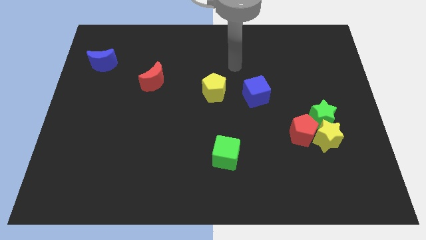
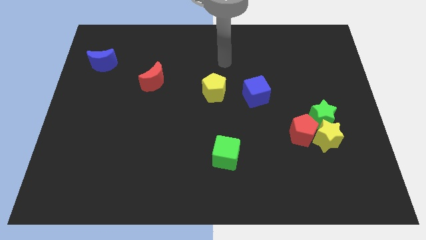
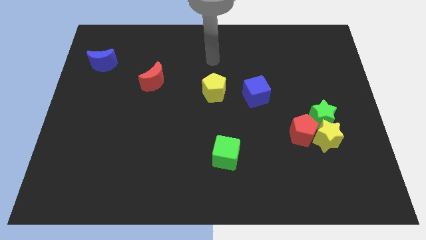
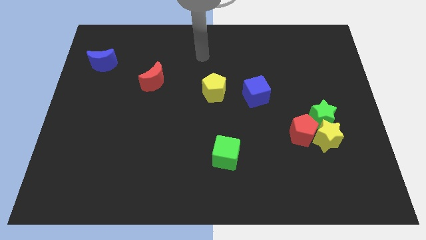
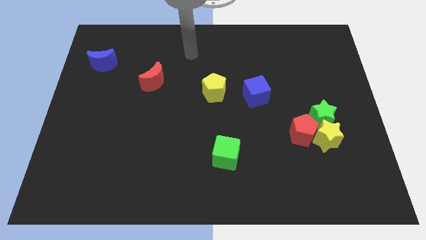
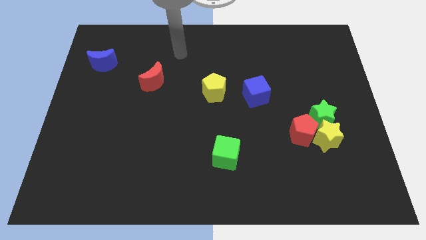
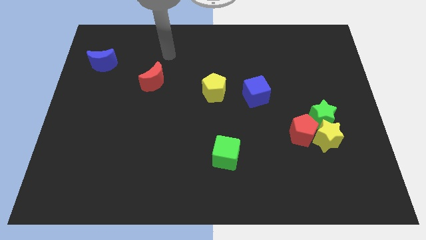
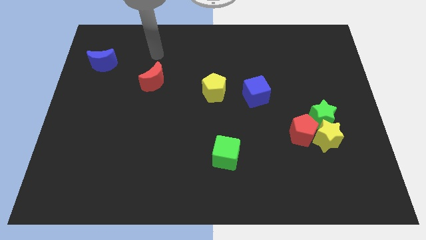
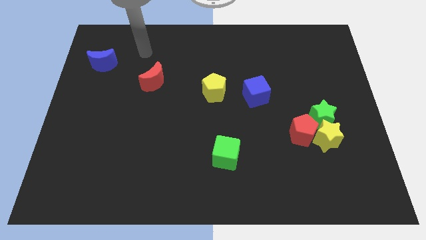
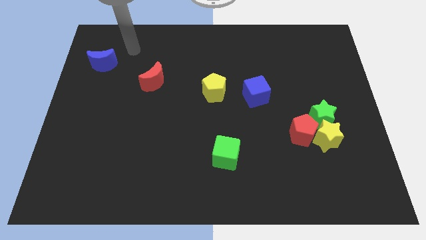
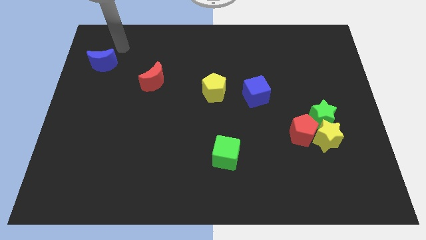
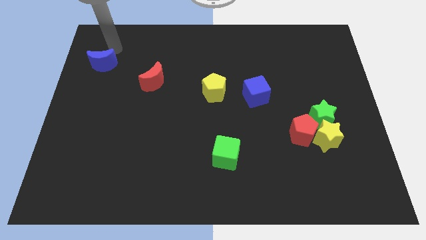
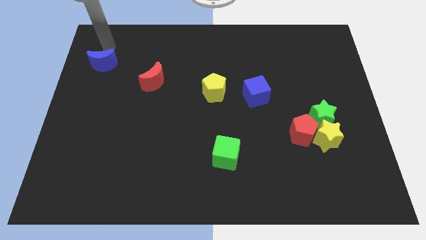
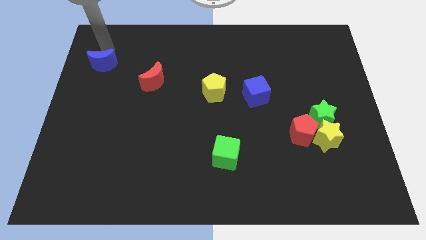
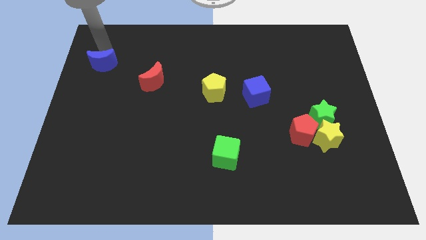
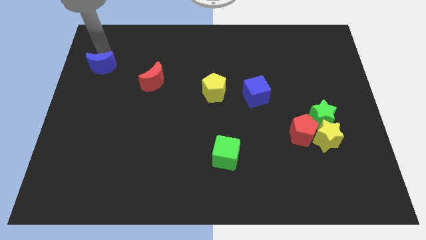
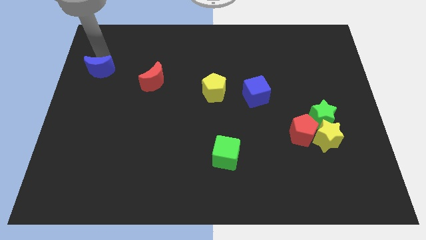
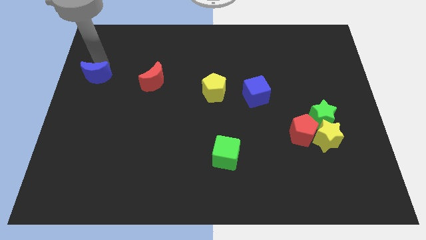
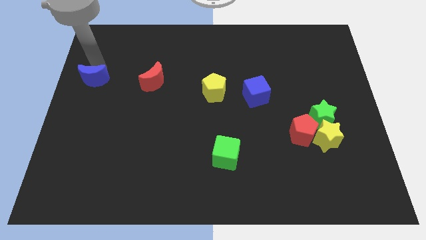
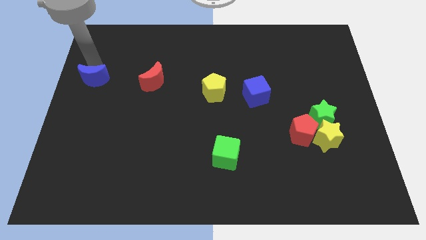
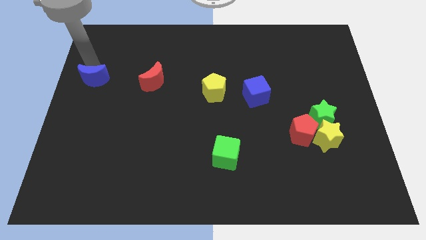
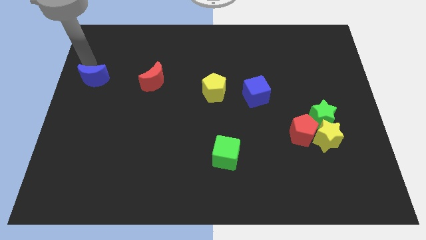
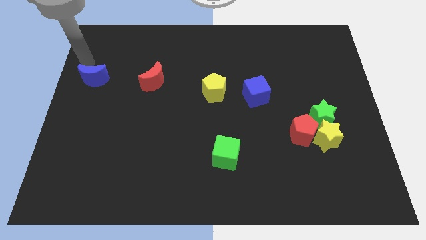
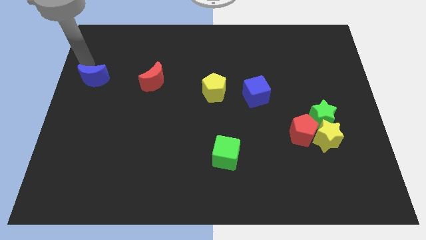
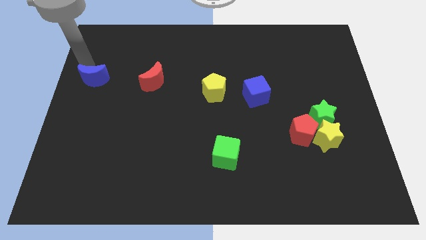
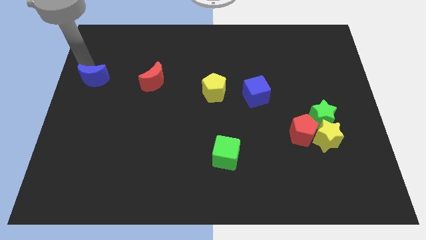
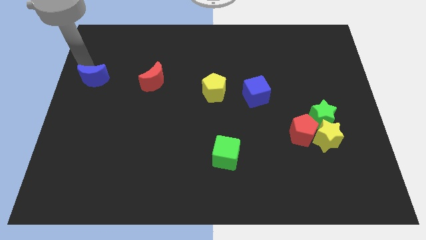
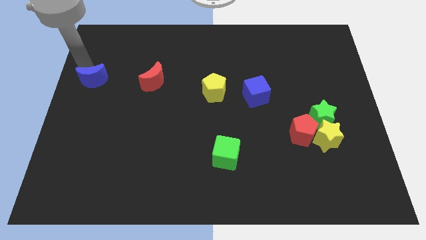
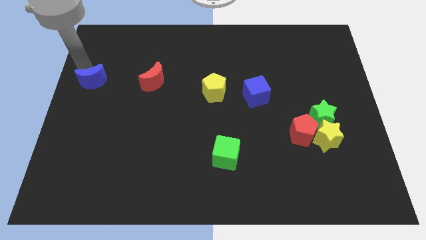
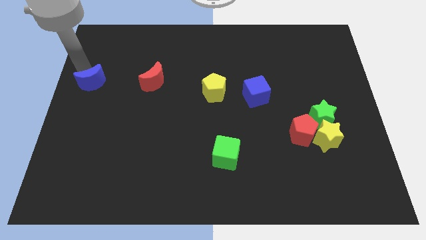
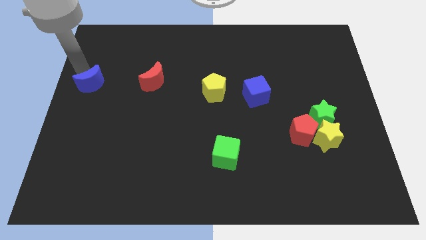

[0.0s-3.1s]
slightly push the blue moon downwards

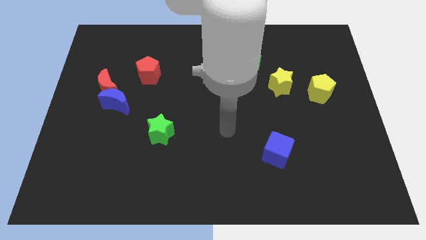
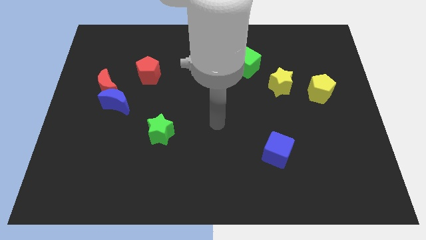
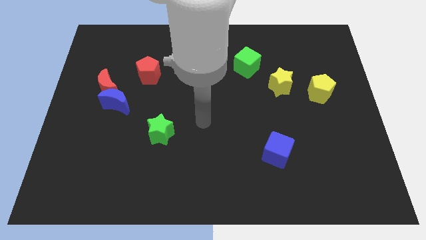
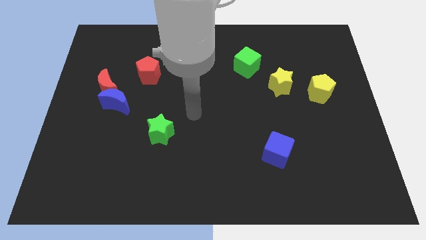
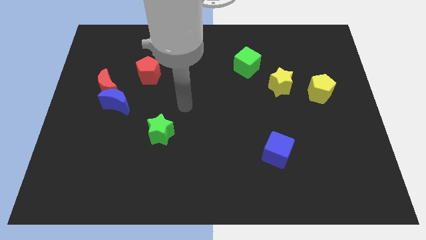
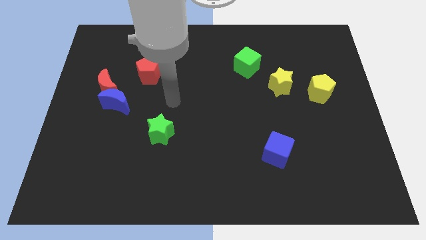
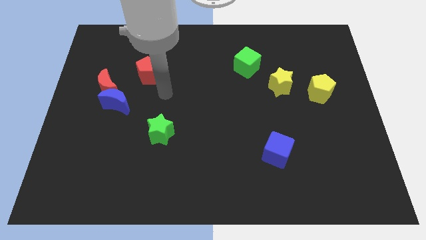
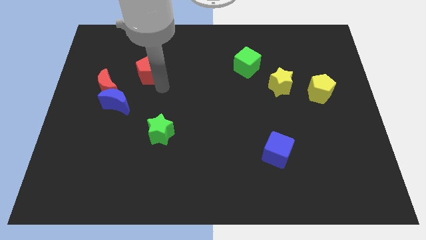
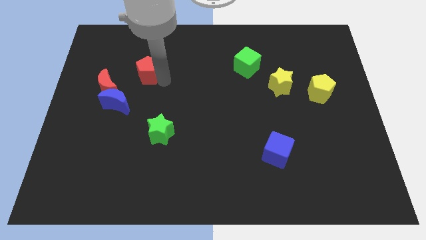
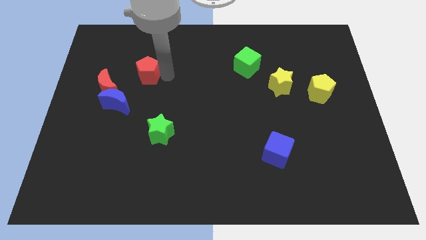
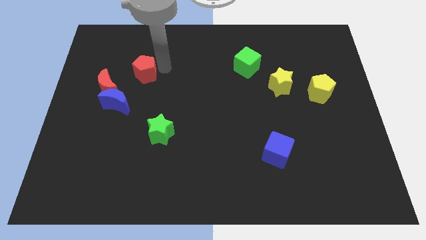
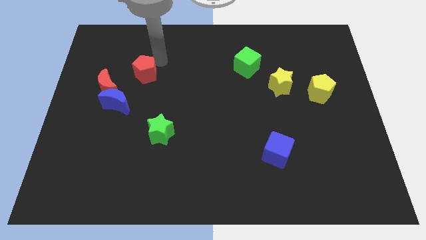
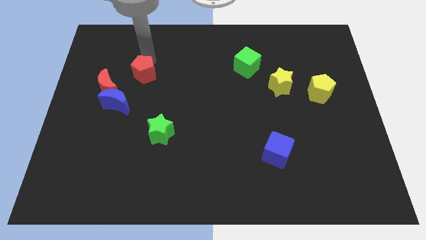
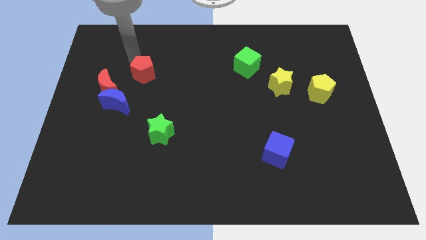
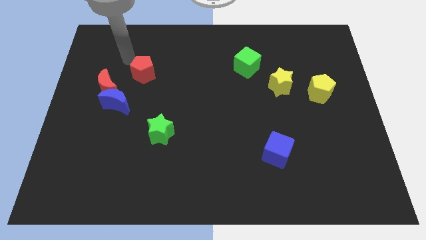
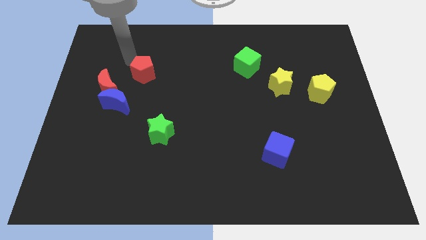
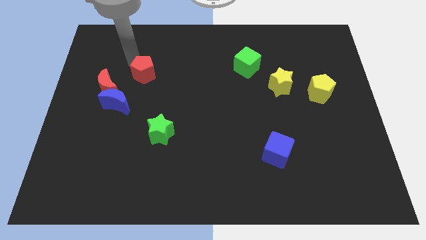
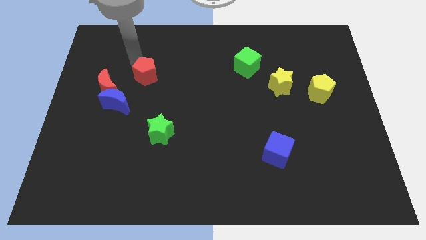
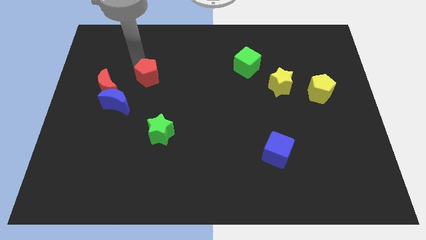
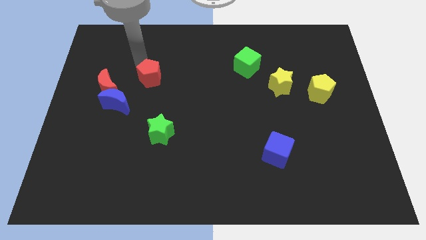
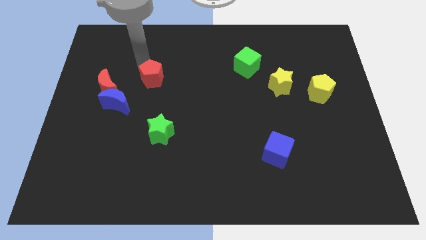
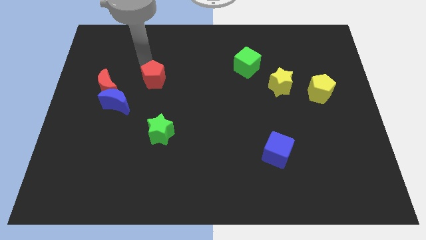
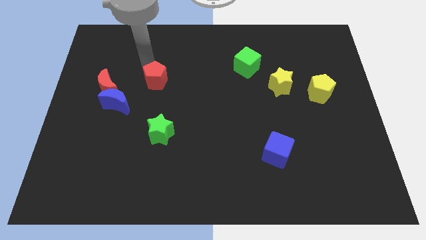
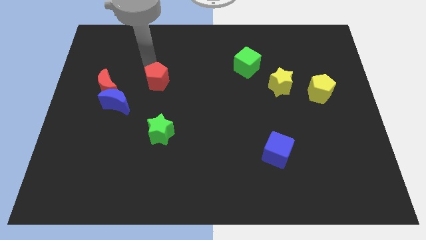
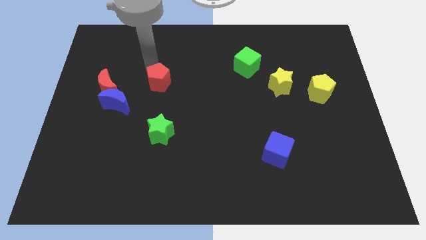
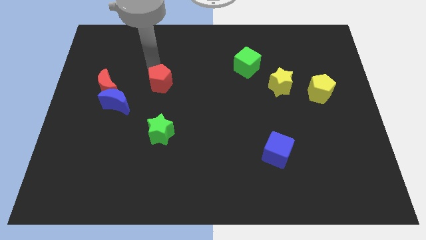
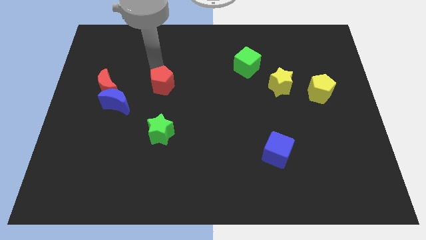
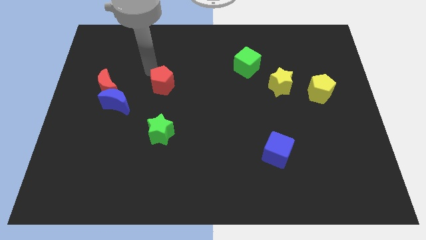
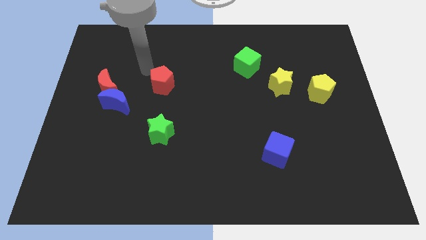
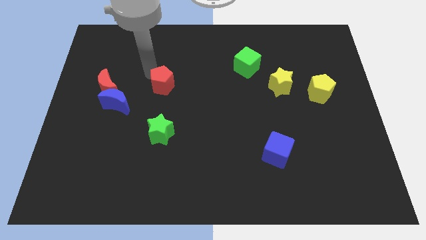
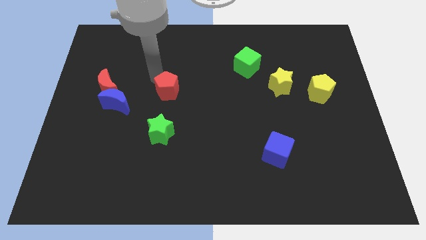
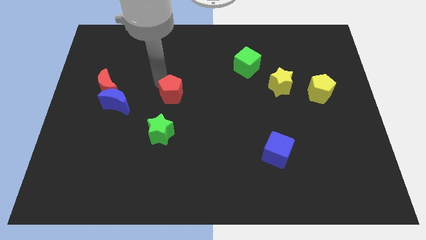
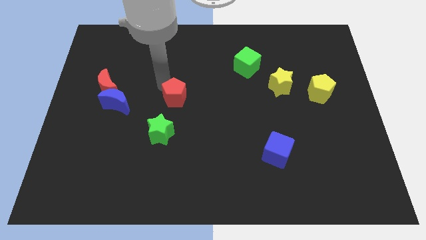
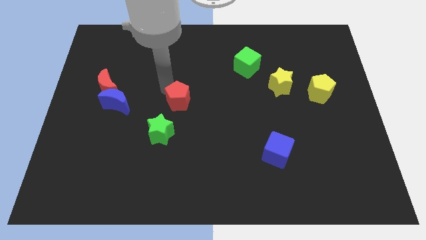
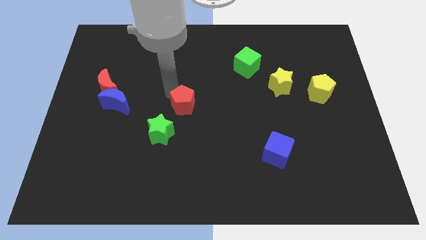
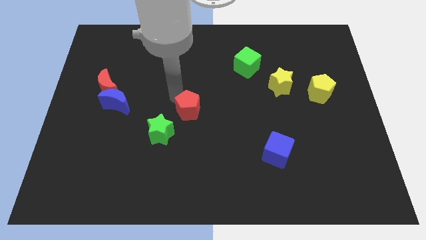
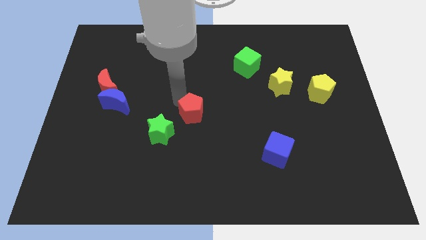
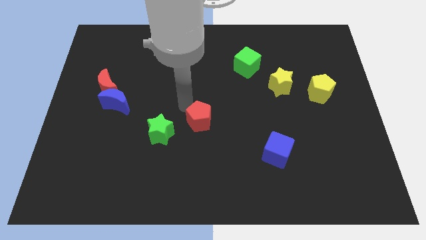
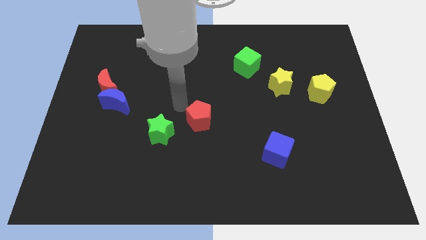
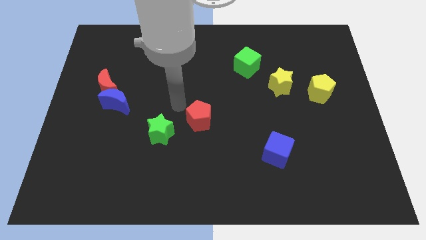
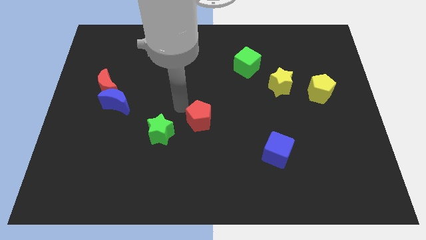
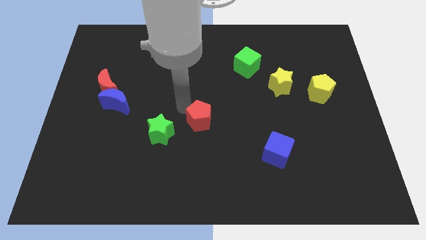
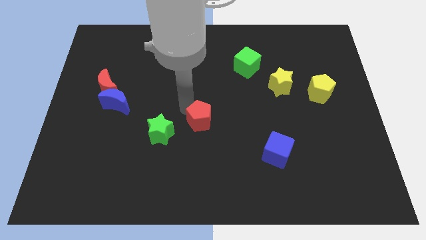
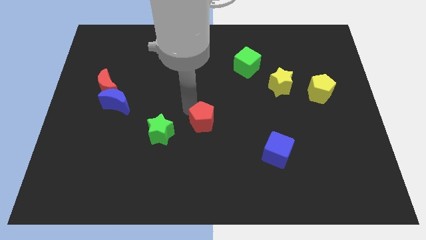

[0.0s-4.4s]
move the red pentagon downwards and then right

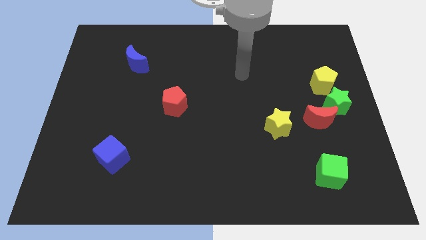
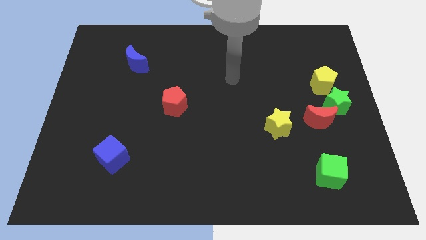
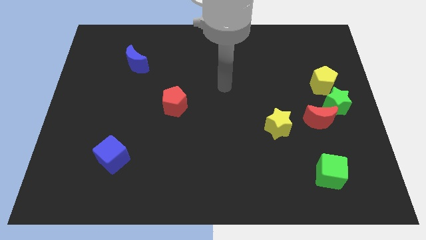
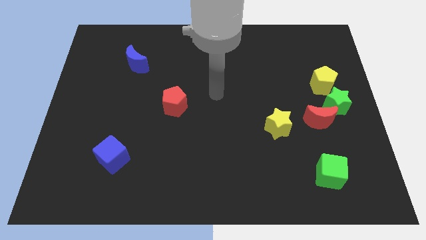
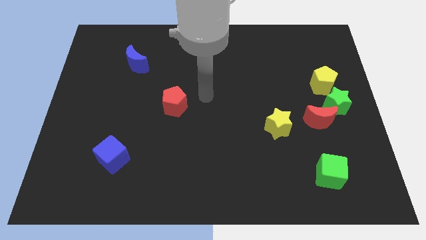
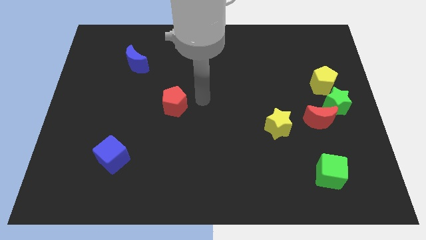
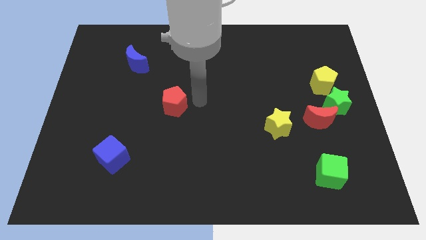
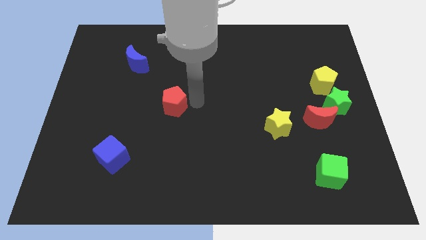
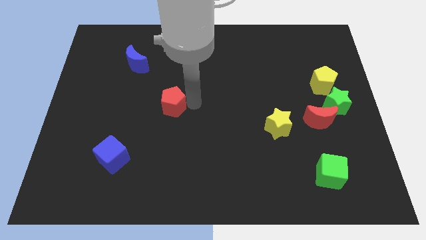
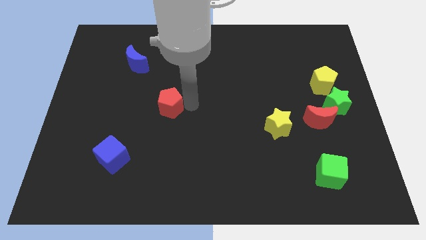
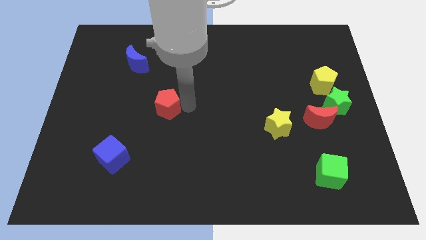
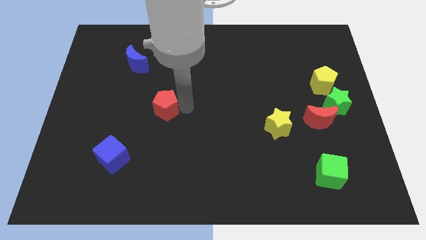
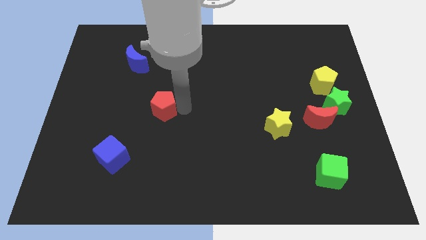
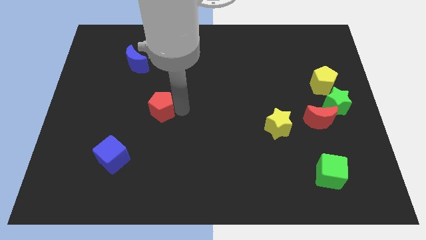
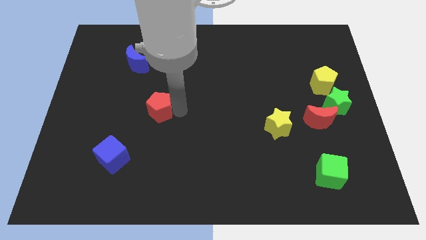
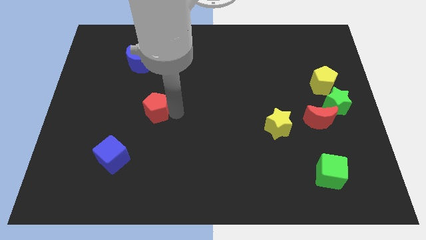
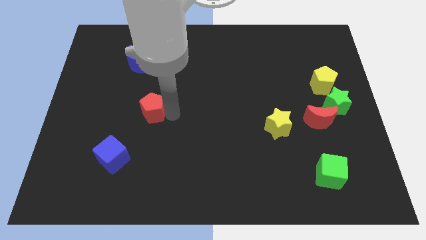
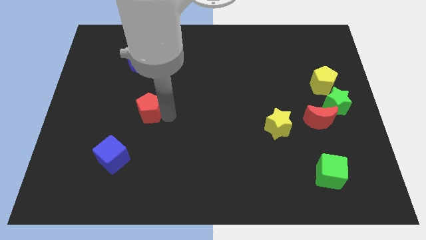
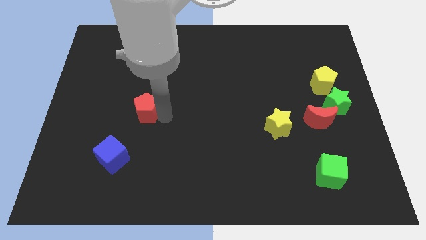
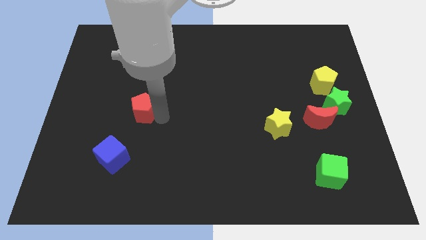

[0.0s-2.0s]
move the red pentagon to the left slightly
